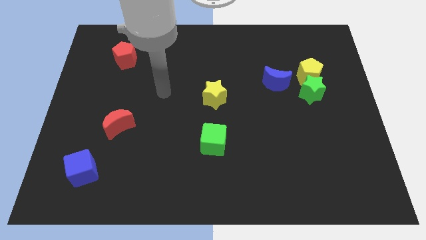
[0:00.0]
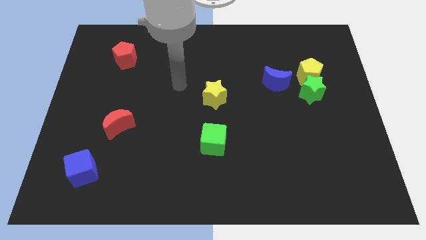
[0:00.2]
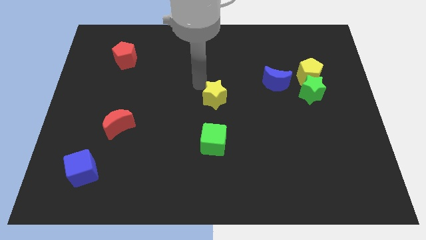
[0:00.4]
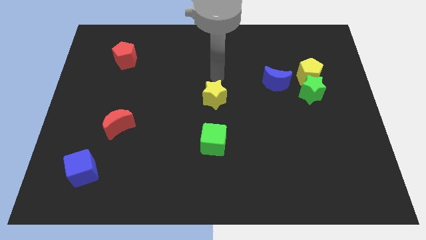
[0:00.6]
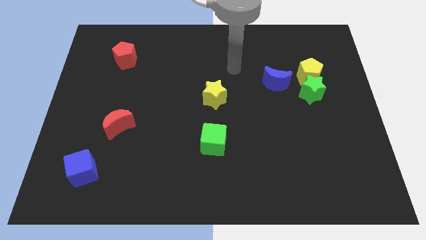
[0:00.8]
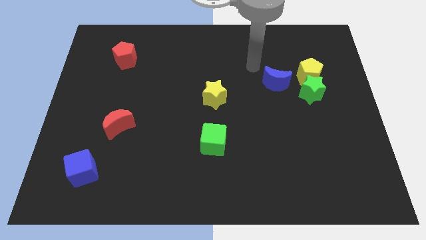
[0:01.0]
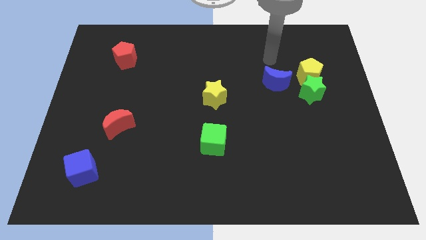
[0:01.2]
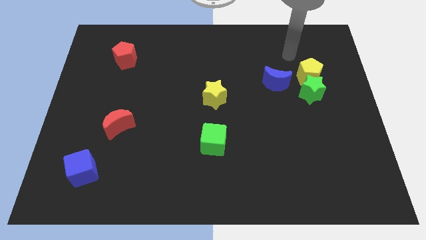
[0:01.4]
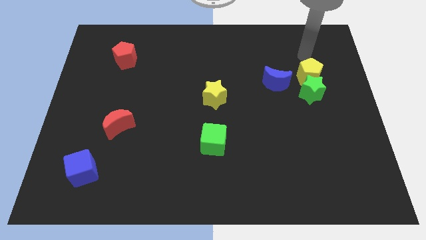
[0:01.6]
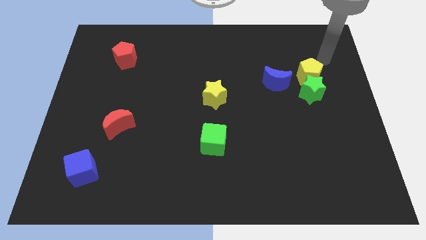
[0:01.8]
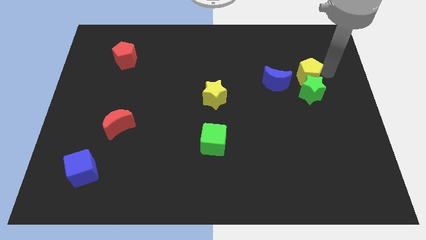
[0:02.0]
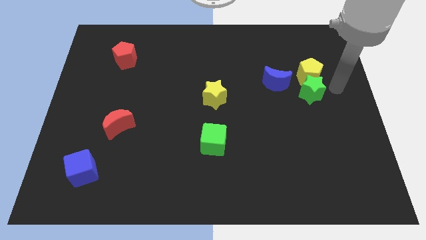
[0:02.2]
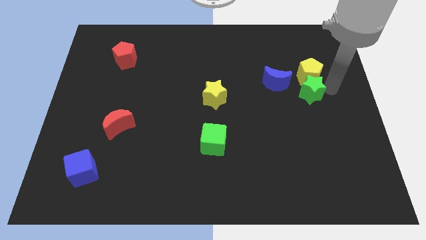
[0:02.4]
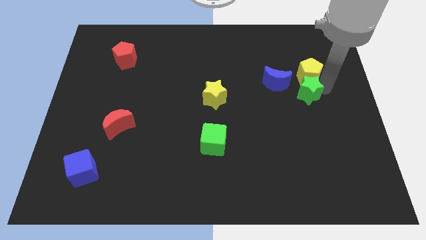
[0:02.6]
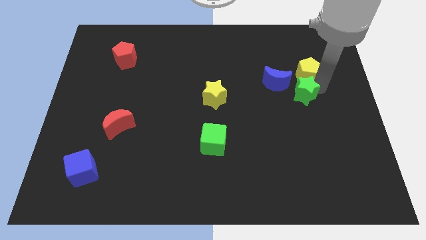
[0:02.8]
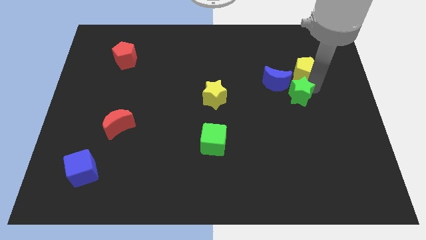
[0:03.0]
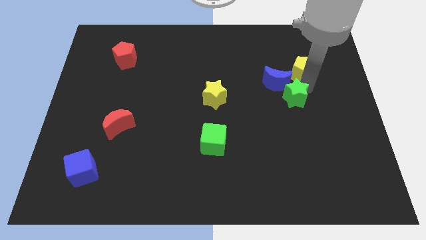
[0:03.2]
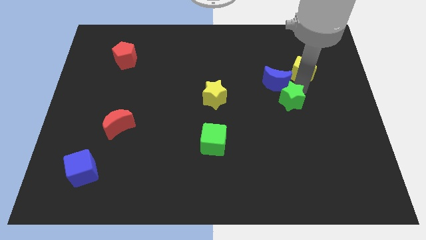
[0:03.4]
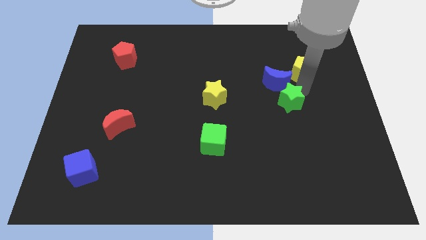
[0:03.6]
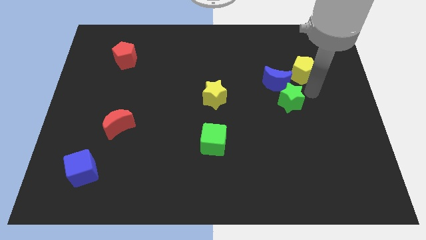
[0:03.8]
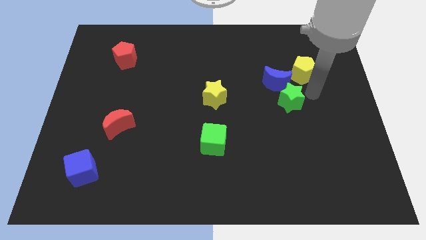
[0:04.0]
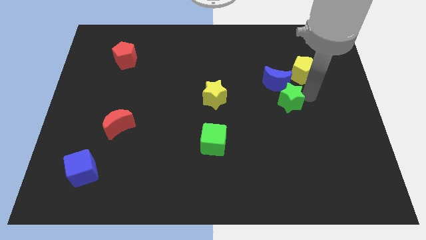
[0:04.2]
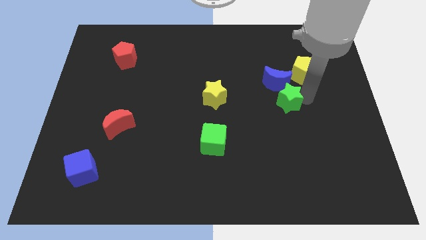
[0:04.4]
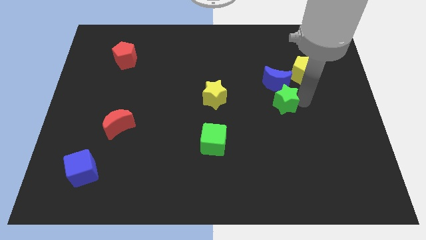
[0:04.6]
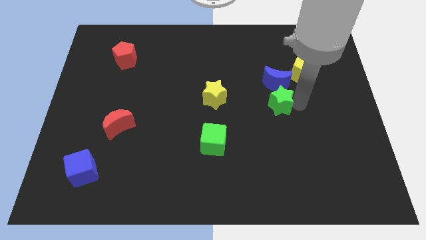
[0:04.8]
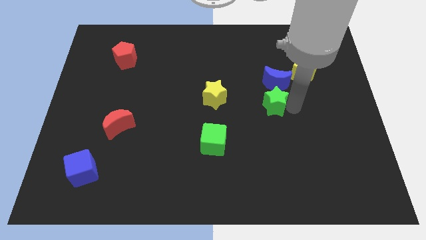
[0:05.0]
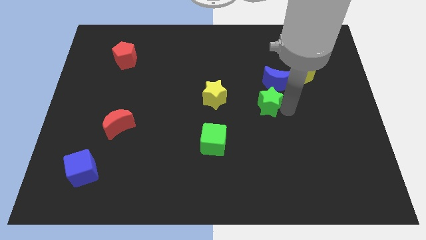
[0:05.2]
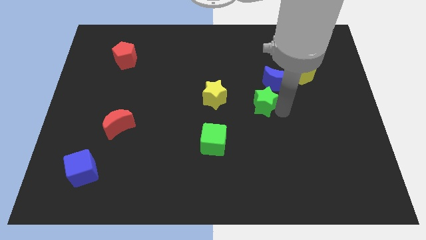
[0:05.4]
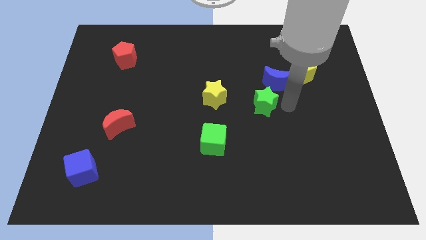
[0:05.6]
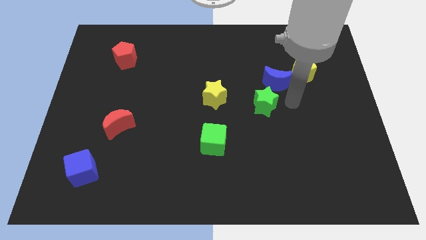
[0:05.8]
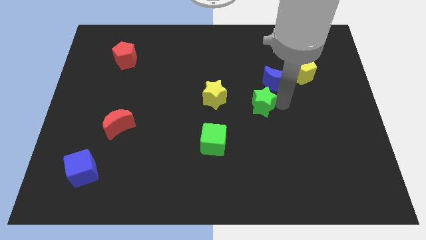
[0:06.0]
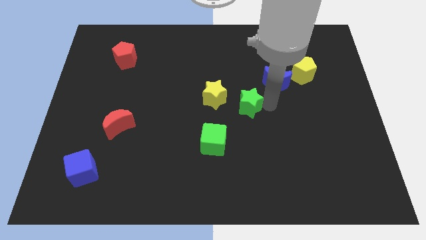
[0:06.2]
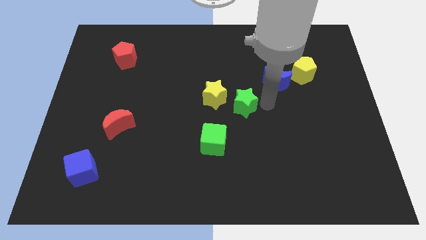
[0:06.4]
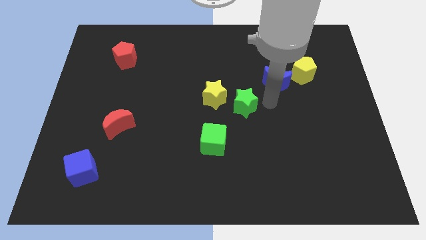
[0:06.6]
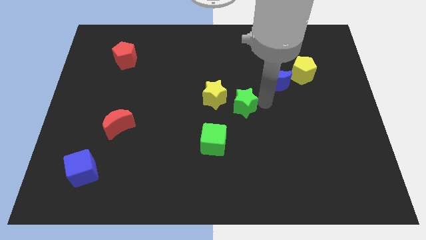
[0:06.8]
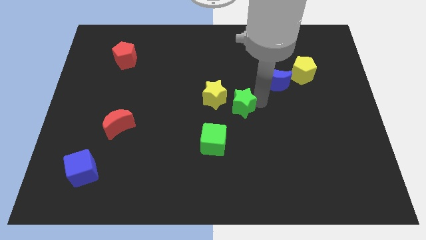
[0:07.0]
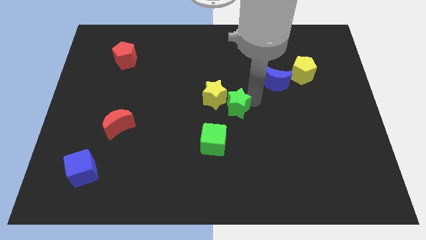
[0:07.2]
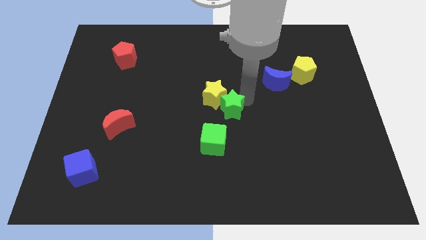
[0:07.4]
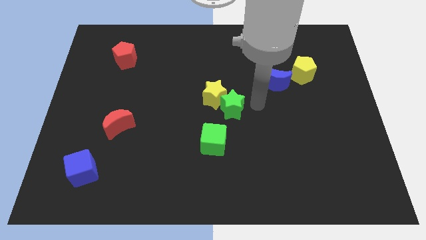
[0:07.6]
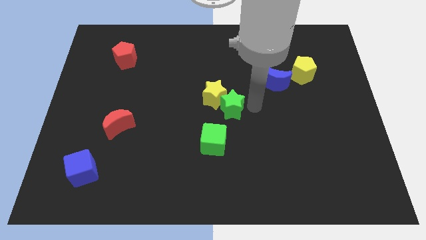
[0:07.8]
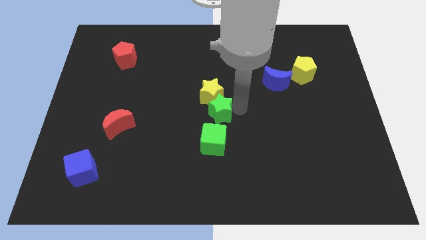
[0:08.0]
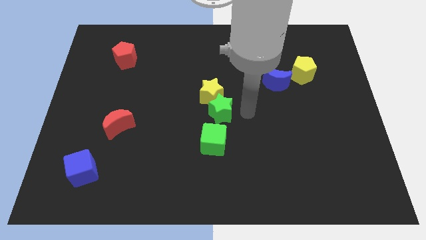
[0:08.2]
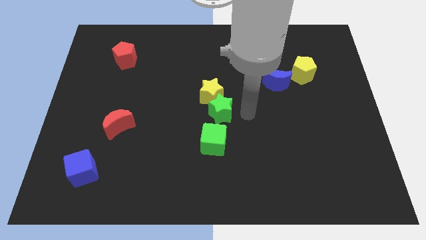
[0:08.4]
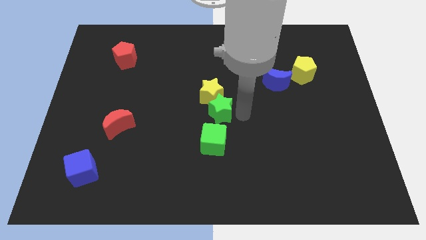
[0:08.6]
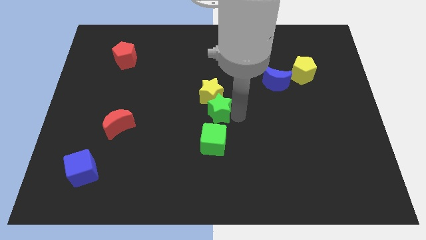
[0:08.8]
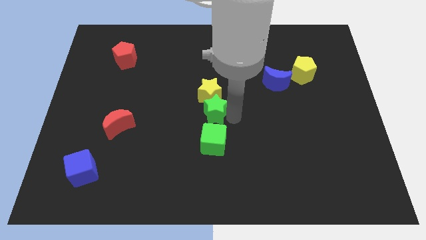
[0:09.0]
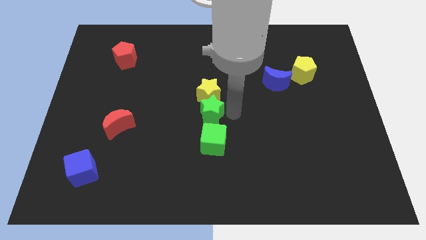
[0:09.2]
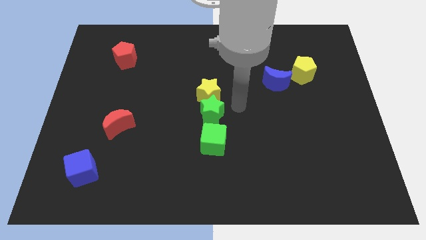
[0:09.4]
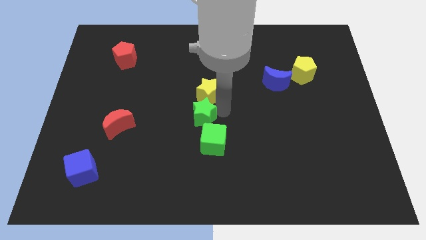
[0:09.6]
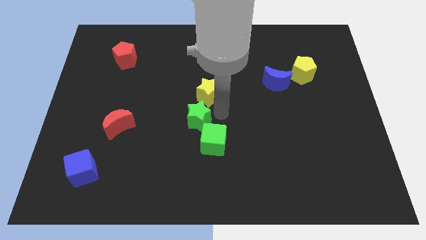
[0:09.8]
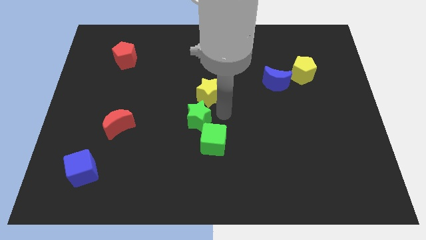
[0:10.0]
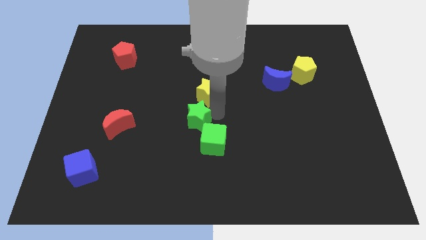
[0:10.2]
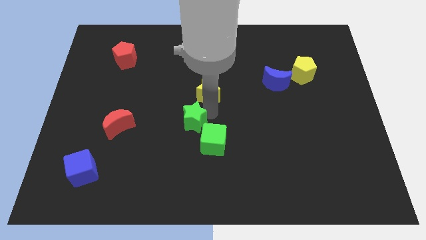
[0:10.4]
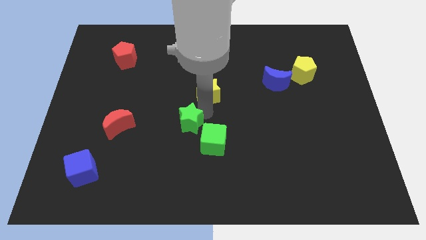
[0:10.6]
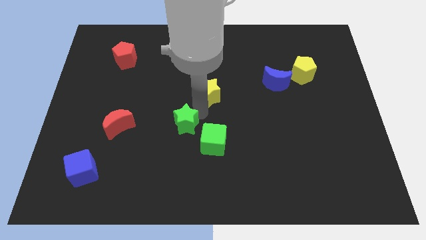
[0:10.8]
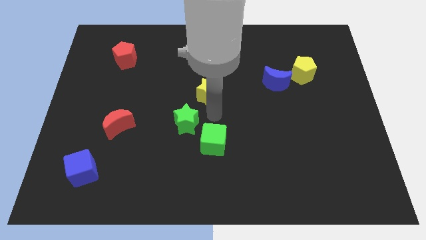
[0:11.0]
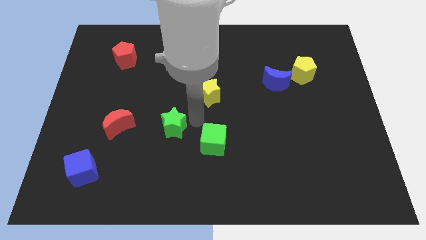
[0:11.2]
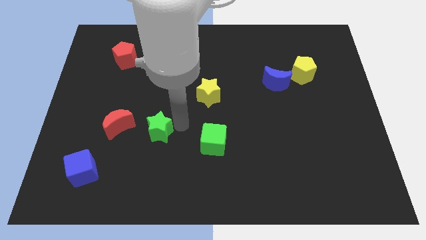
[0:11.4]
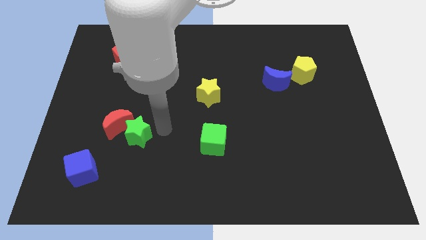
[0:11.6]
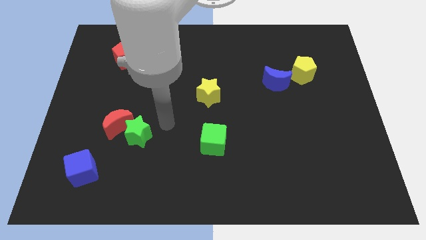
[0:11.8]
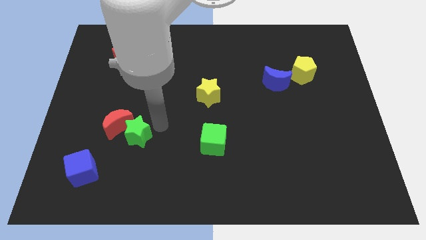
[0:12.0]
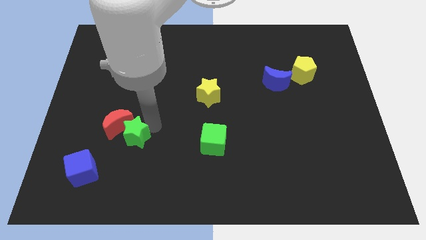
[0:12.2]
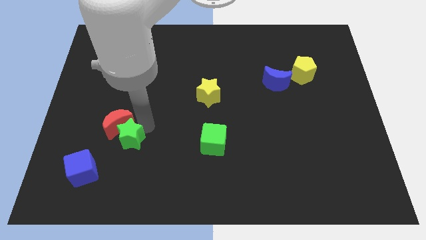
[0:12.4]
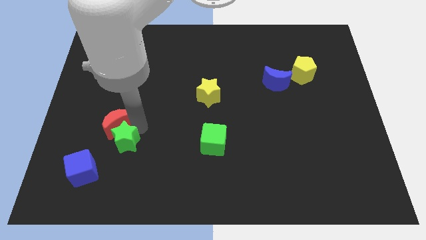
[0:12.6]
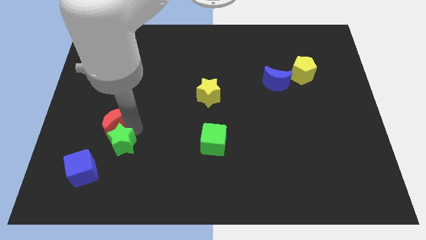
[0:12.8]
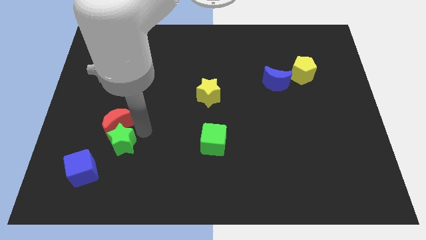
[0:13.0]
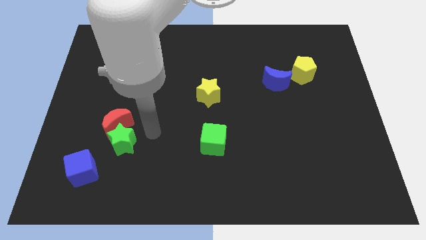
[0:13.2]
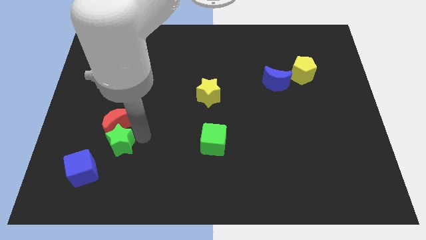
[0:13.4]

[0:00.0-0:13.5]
push the green star diagonally down and to the left of the red moon

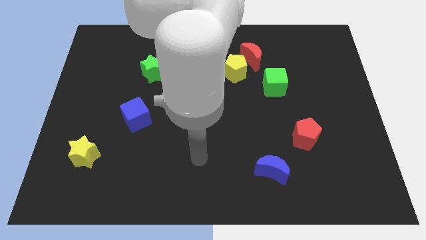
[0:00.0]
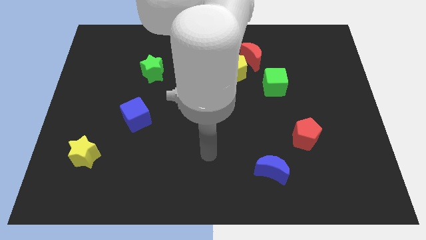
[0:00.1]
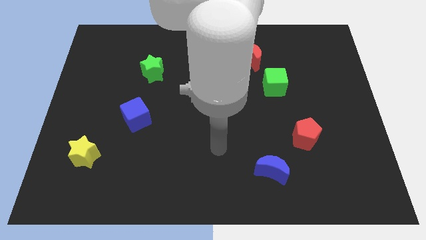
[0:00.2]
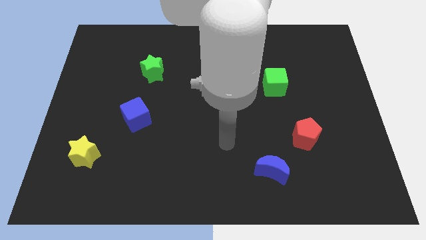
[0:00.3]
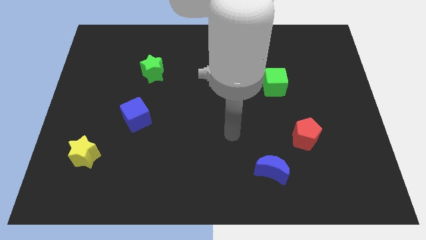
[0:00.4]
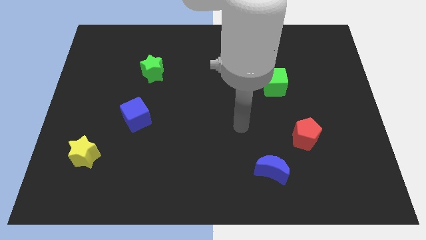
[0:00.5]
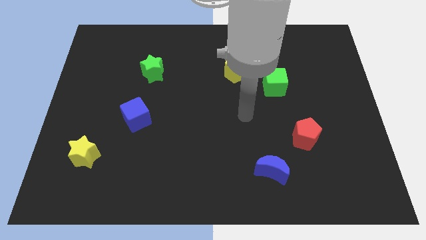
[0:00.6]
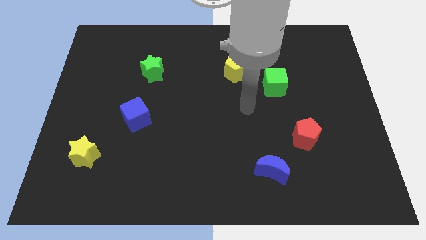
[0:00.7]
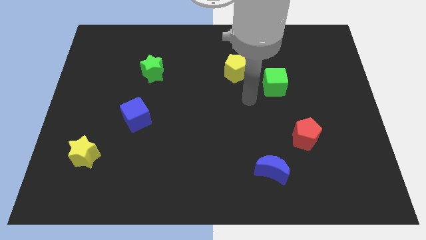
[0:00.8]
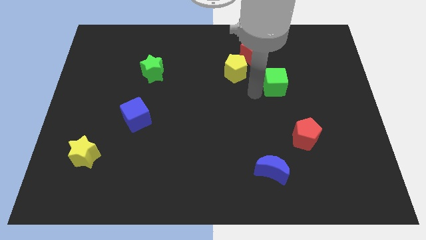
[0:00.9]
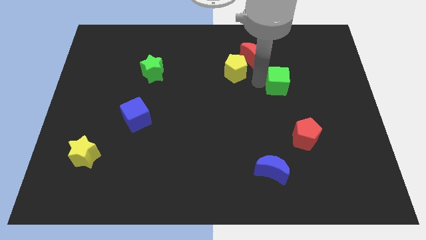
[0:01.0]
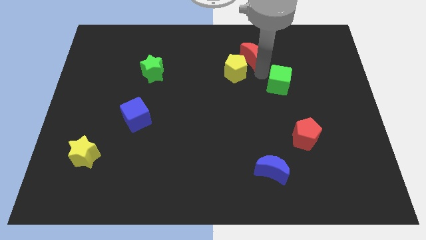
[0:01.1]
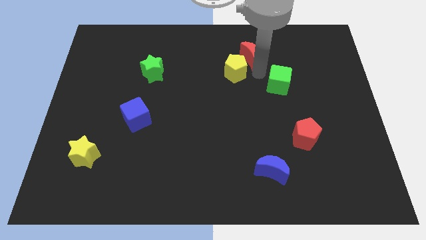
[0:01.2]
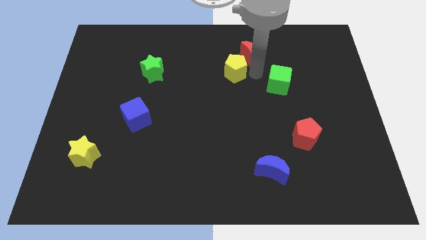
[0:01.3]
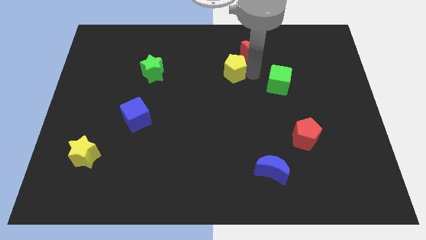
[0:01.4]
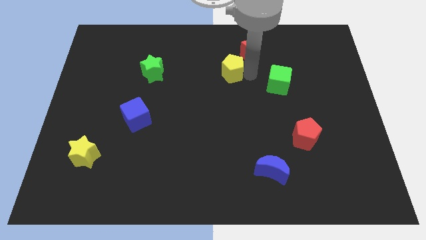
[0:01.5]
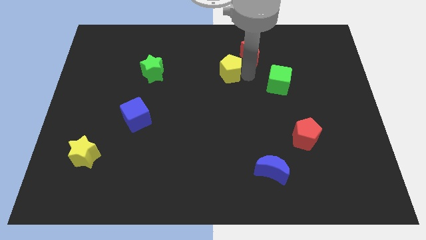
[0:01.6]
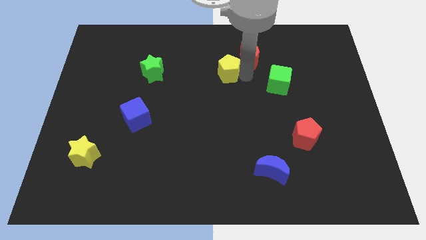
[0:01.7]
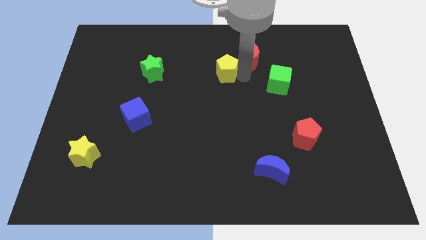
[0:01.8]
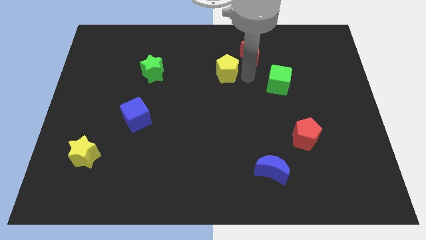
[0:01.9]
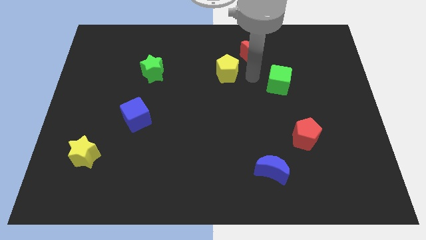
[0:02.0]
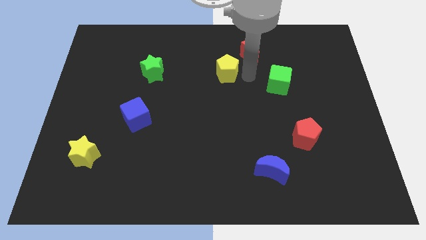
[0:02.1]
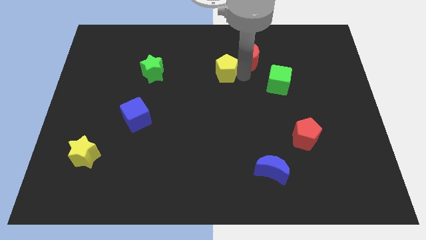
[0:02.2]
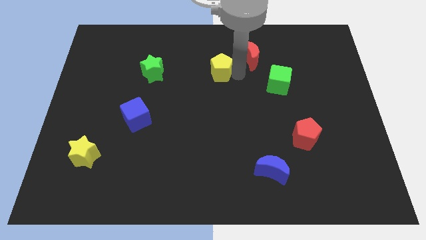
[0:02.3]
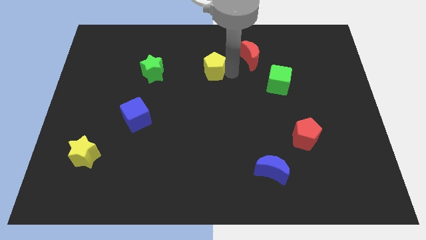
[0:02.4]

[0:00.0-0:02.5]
push the yellow pentagon right of the green star
